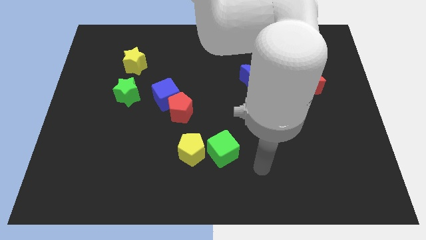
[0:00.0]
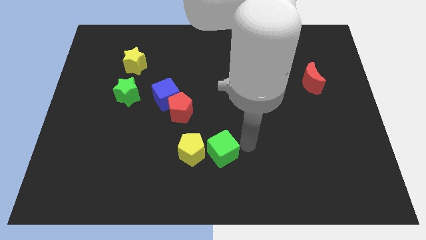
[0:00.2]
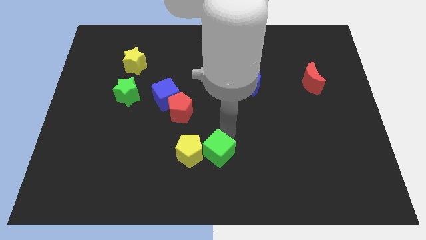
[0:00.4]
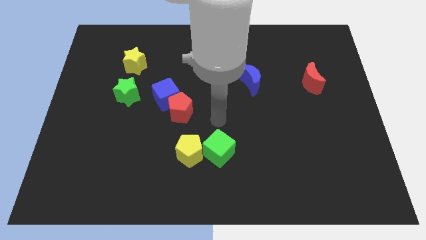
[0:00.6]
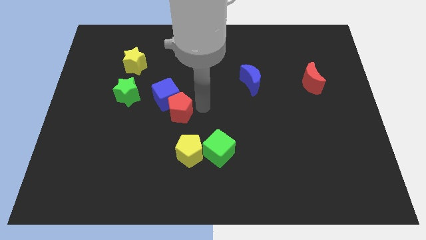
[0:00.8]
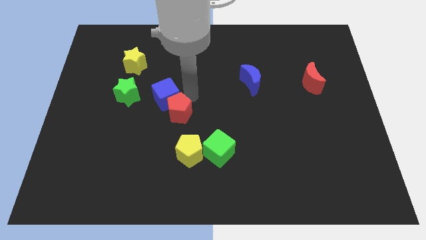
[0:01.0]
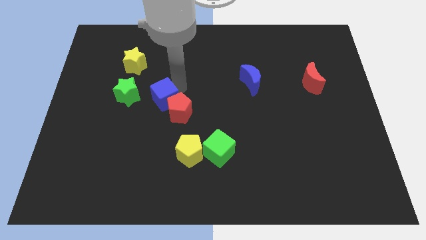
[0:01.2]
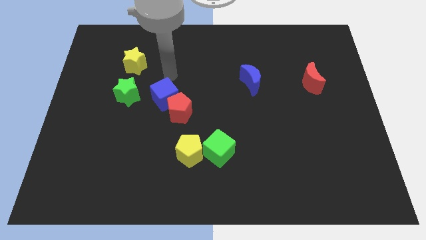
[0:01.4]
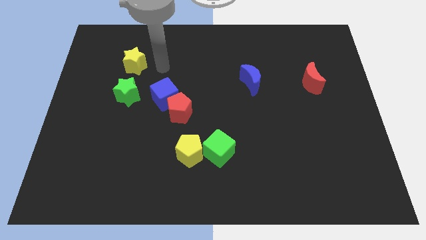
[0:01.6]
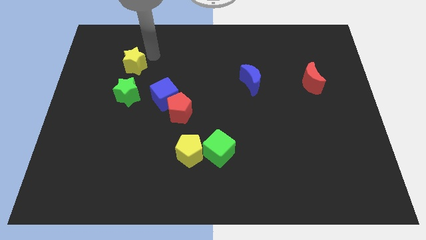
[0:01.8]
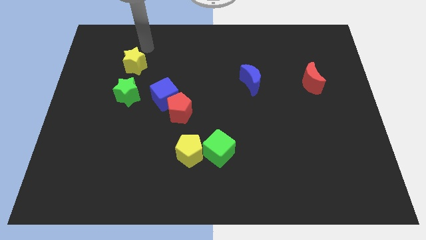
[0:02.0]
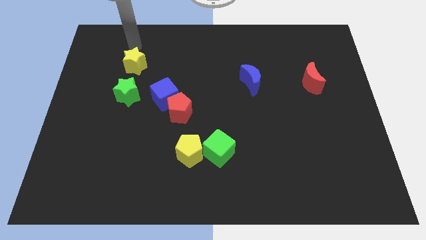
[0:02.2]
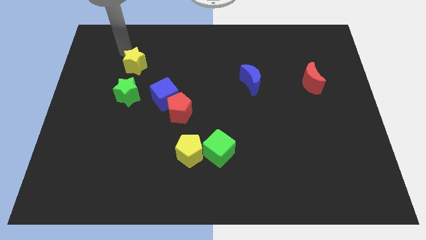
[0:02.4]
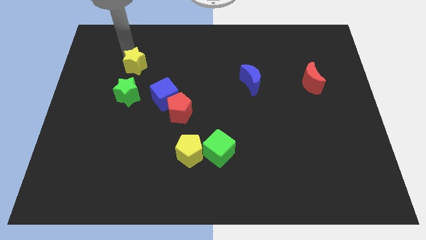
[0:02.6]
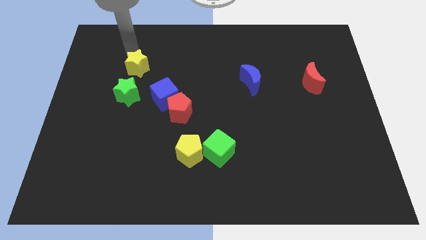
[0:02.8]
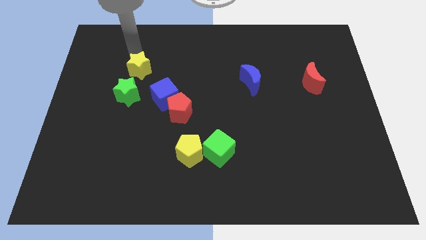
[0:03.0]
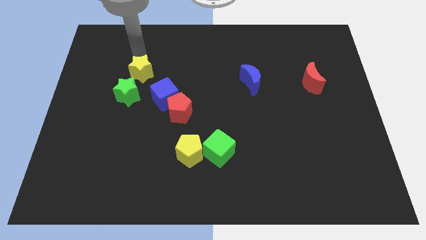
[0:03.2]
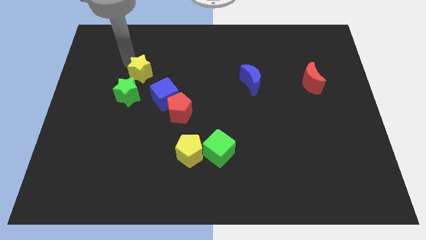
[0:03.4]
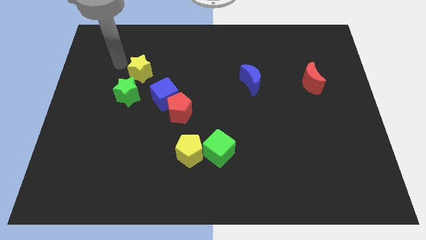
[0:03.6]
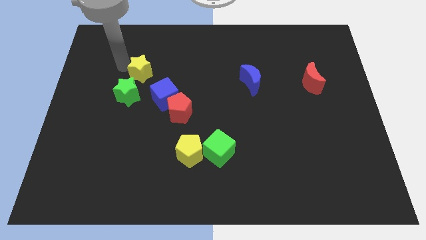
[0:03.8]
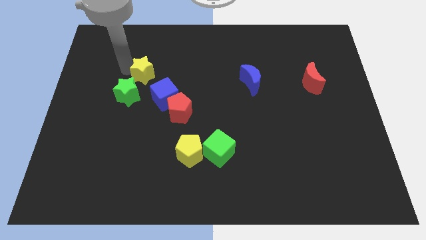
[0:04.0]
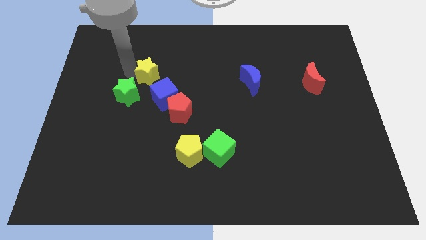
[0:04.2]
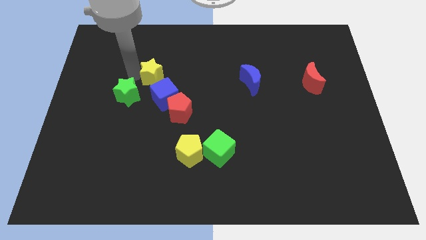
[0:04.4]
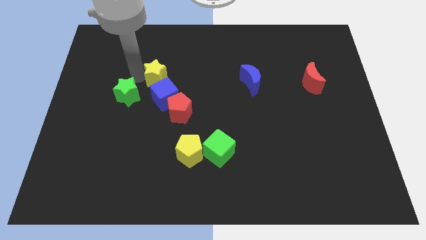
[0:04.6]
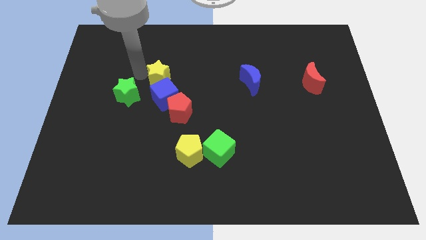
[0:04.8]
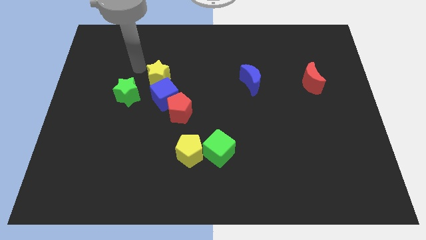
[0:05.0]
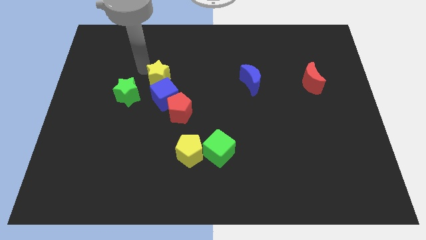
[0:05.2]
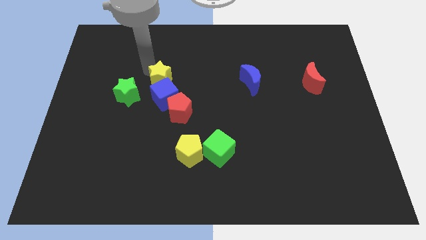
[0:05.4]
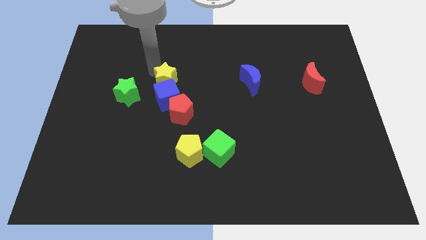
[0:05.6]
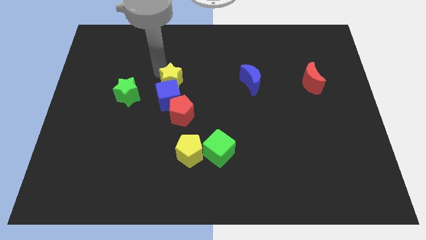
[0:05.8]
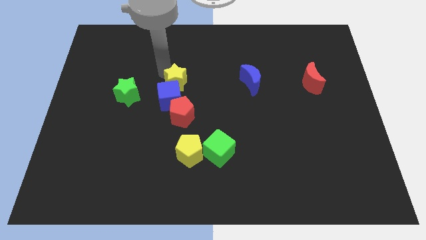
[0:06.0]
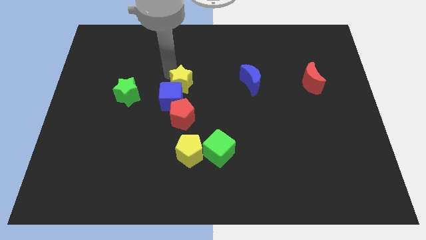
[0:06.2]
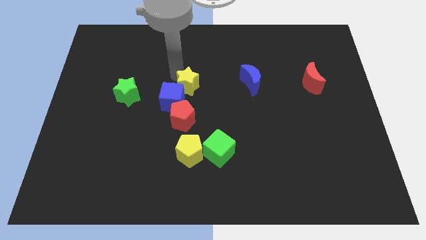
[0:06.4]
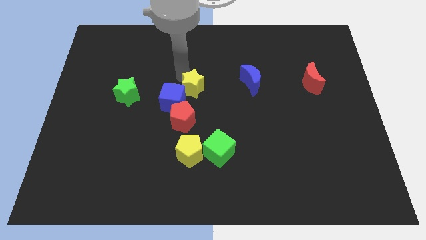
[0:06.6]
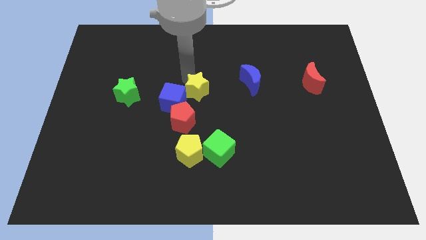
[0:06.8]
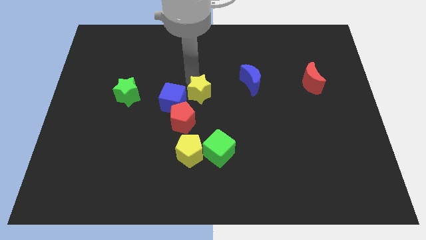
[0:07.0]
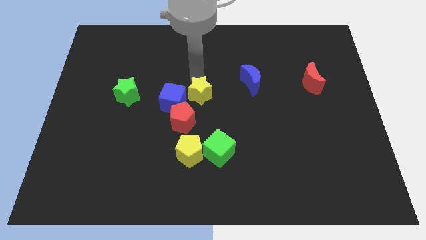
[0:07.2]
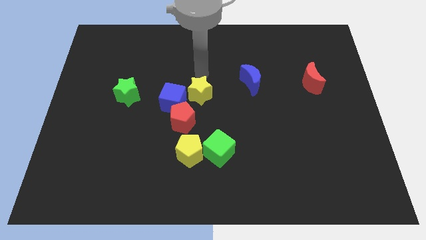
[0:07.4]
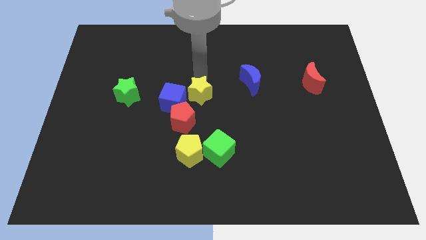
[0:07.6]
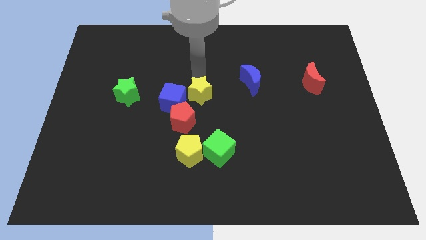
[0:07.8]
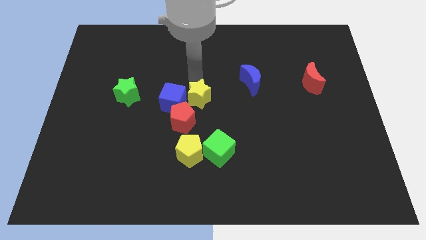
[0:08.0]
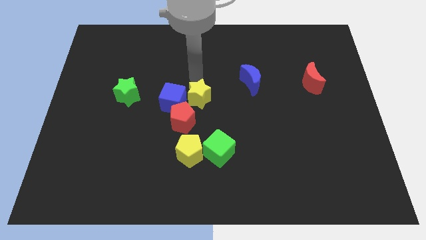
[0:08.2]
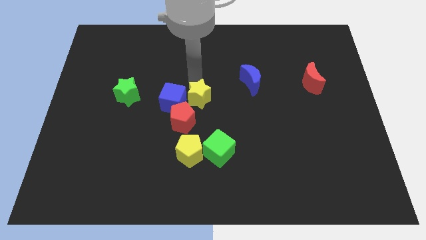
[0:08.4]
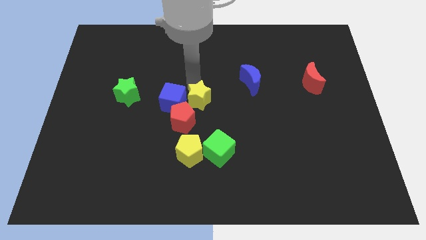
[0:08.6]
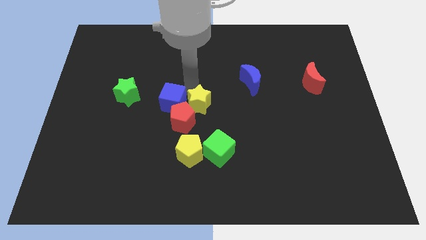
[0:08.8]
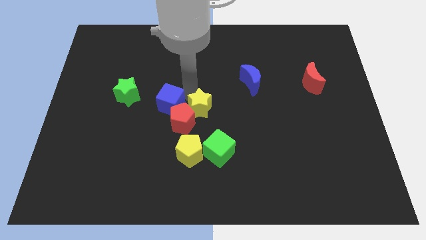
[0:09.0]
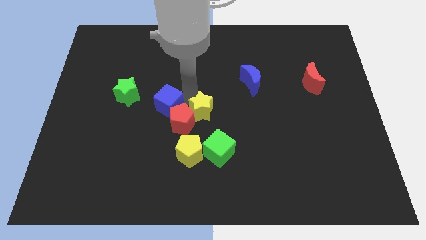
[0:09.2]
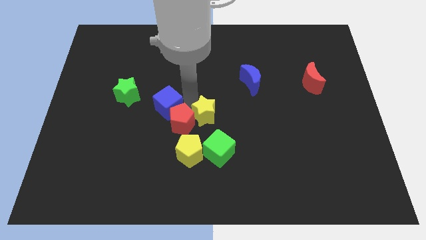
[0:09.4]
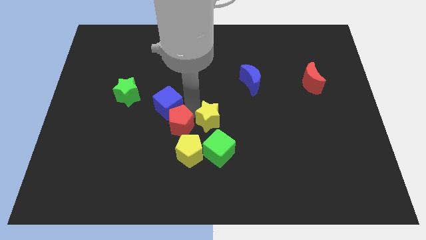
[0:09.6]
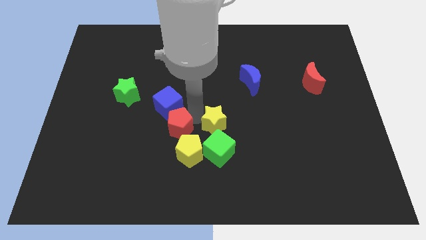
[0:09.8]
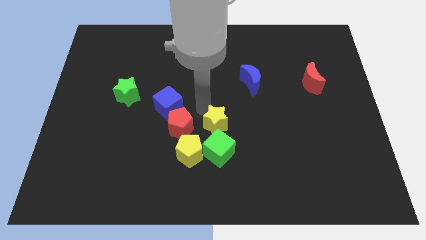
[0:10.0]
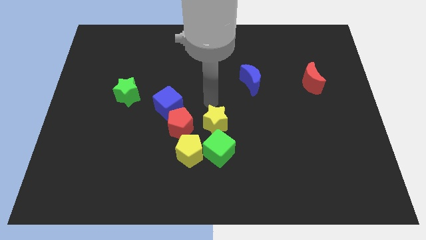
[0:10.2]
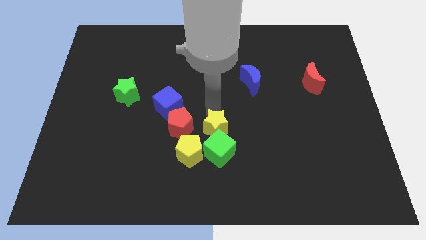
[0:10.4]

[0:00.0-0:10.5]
push the yellow star to the green cube

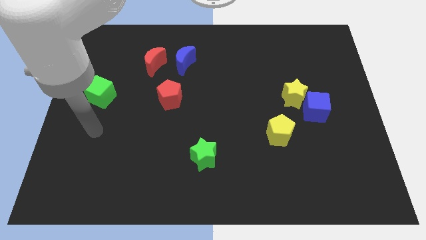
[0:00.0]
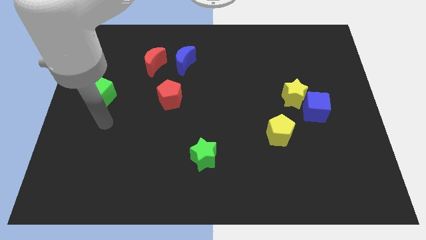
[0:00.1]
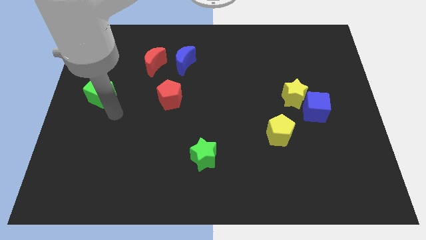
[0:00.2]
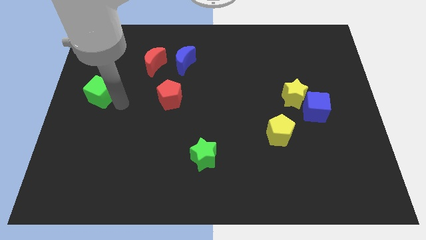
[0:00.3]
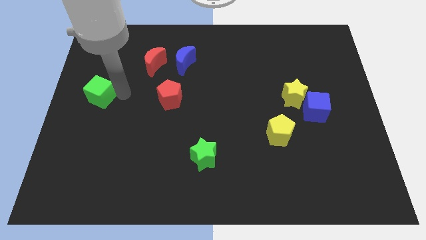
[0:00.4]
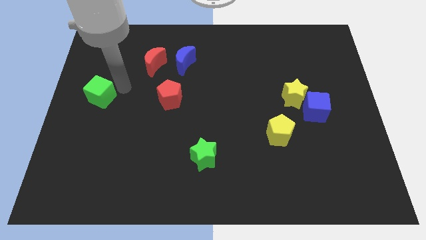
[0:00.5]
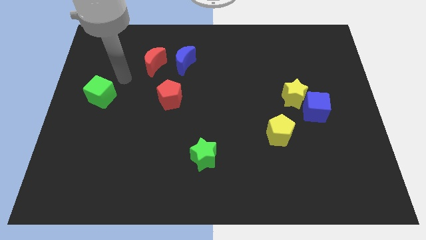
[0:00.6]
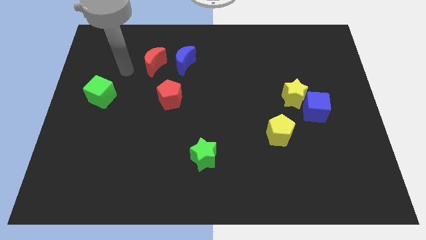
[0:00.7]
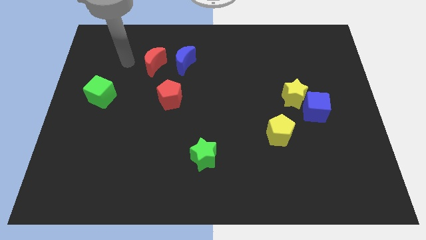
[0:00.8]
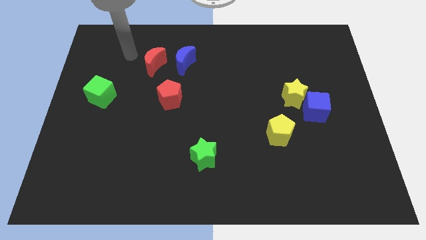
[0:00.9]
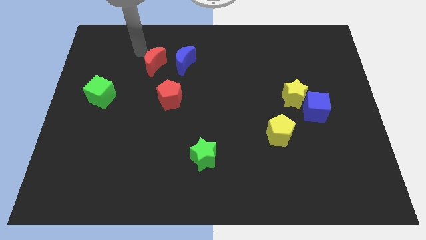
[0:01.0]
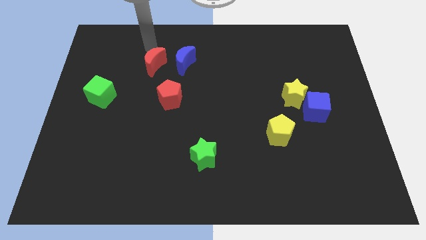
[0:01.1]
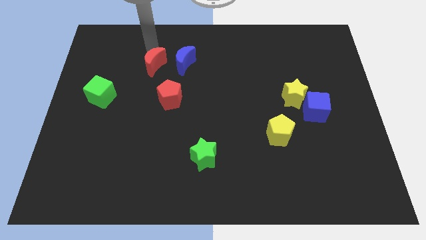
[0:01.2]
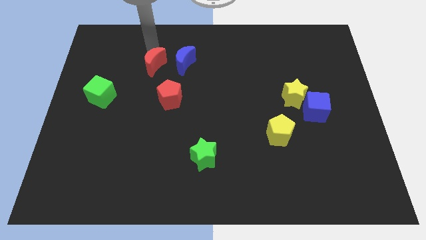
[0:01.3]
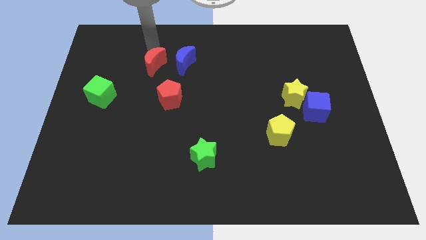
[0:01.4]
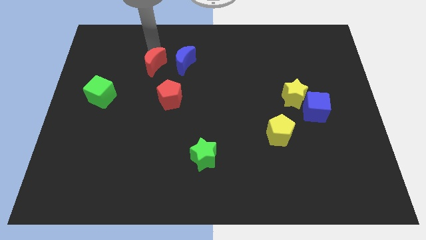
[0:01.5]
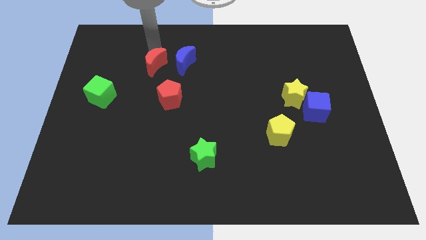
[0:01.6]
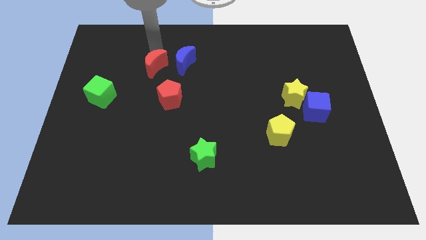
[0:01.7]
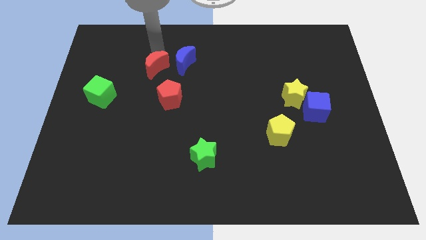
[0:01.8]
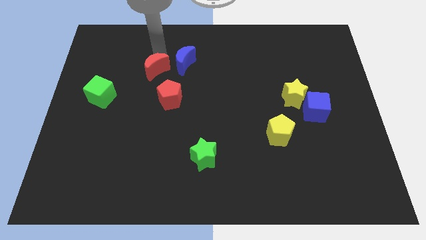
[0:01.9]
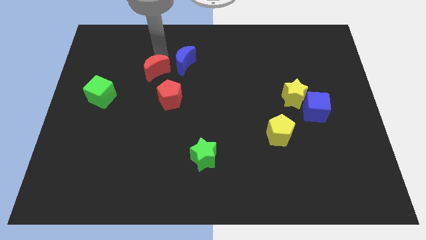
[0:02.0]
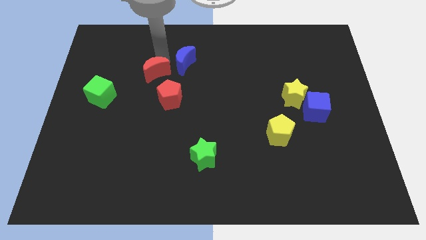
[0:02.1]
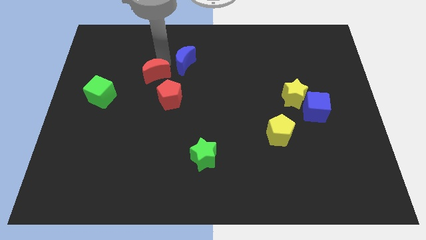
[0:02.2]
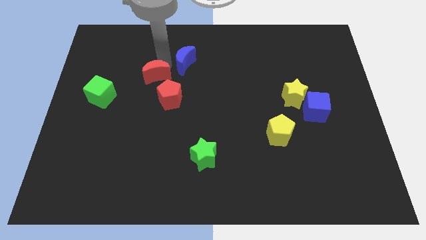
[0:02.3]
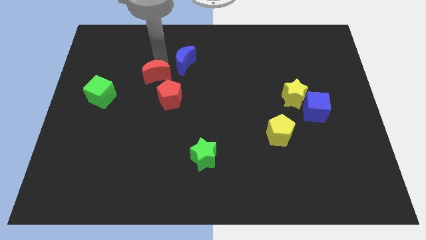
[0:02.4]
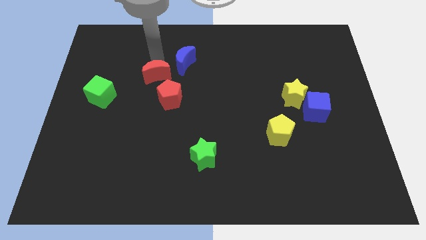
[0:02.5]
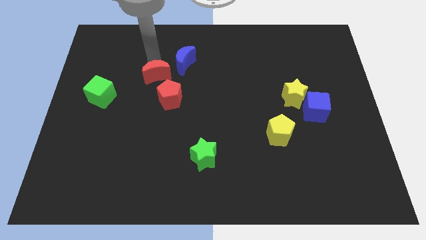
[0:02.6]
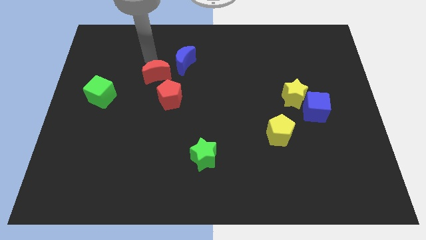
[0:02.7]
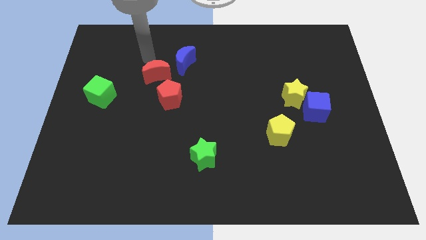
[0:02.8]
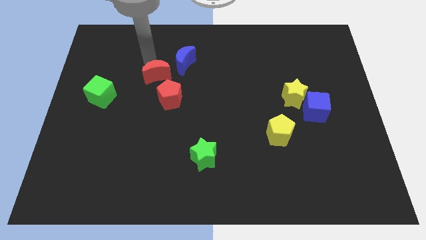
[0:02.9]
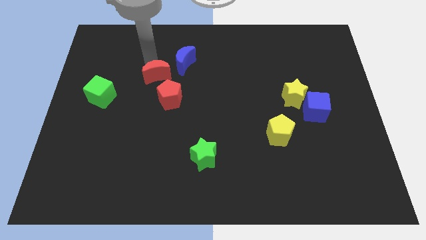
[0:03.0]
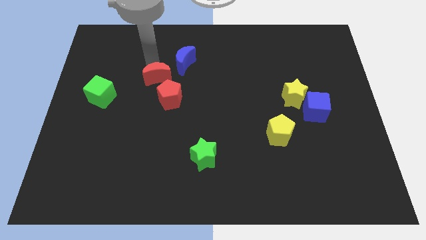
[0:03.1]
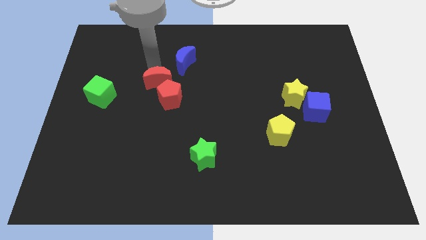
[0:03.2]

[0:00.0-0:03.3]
push the red moon towards the red pentagon
